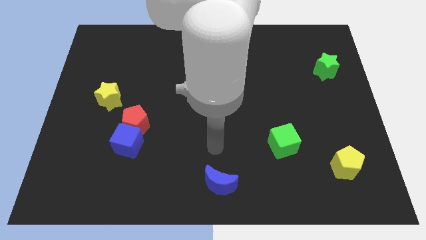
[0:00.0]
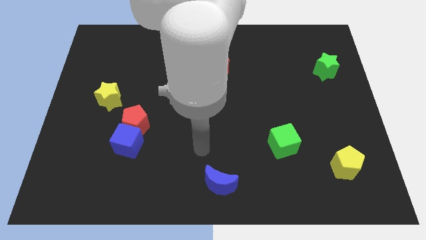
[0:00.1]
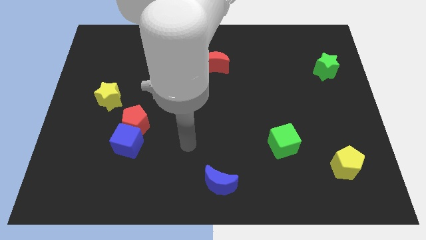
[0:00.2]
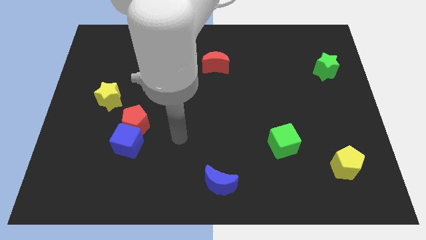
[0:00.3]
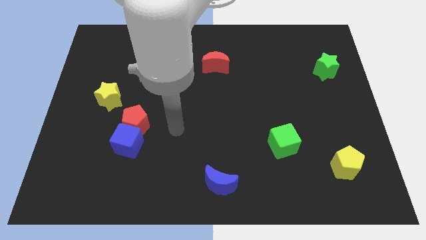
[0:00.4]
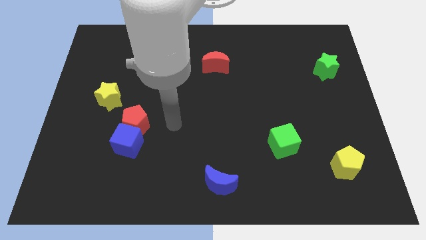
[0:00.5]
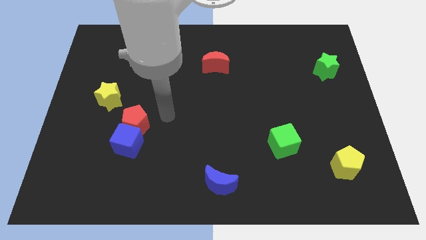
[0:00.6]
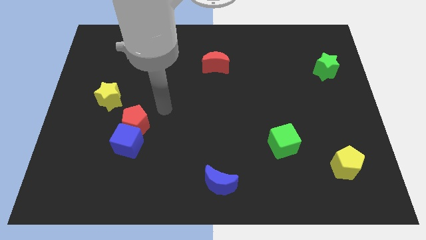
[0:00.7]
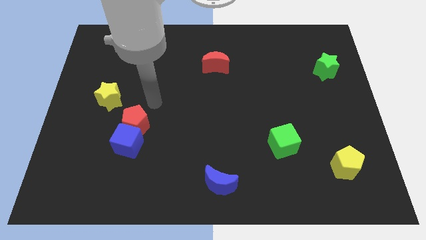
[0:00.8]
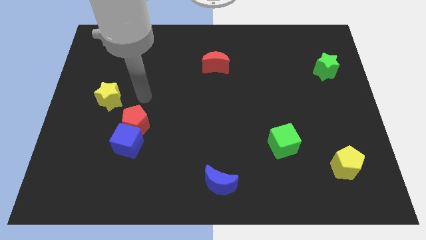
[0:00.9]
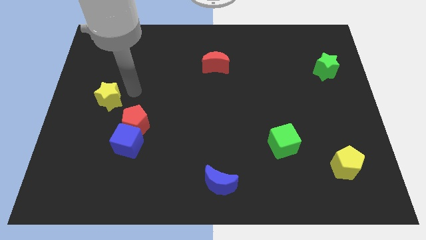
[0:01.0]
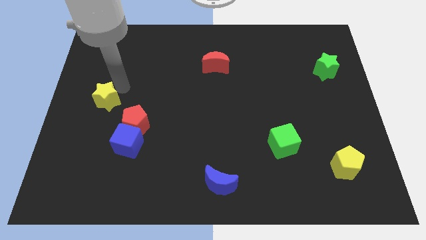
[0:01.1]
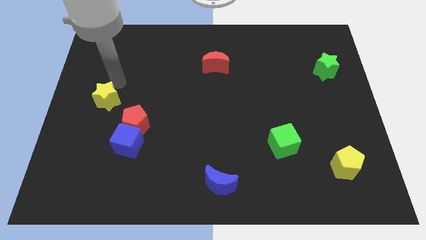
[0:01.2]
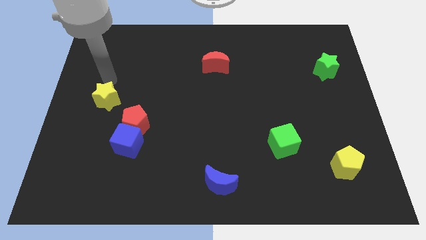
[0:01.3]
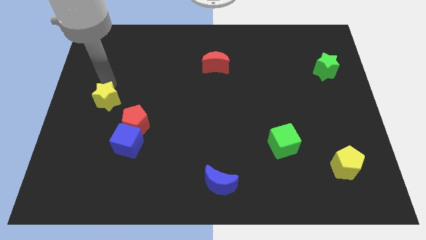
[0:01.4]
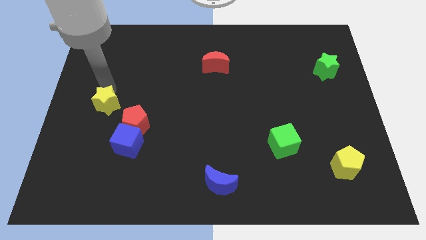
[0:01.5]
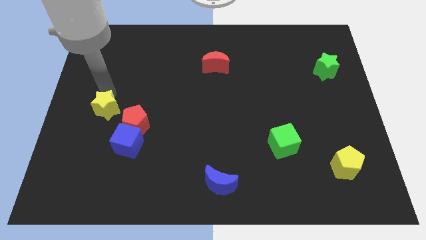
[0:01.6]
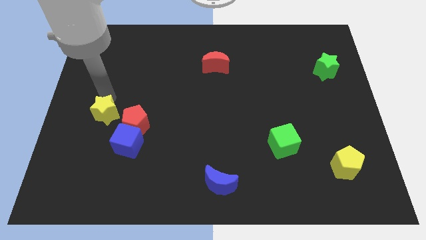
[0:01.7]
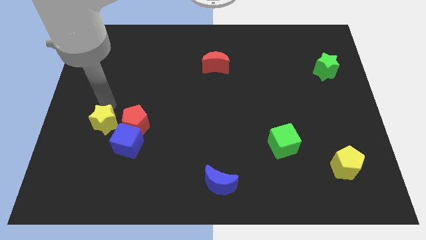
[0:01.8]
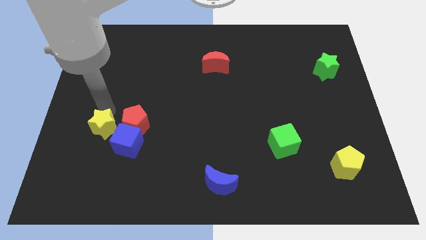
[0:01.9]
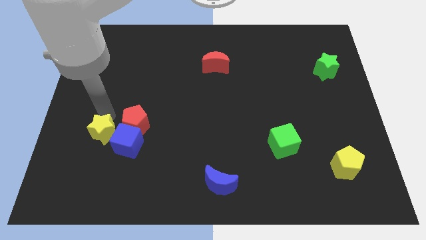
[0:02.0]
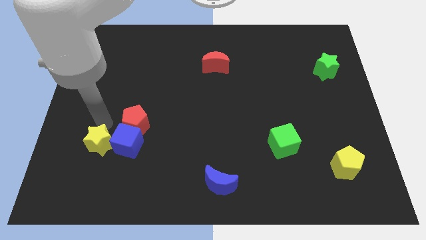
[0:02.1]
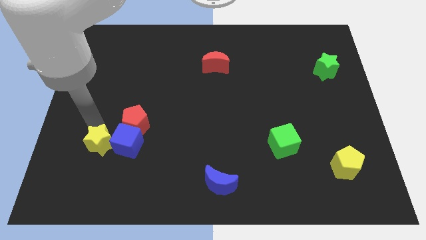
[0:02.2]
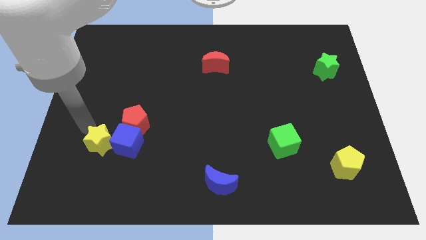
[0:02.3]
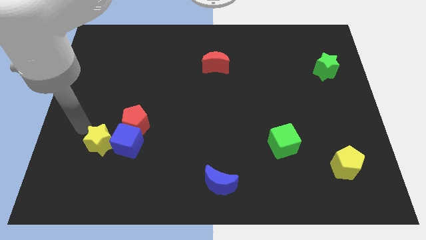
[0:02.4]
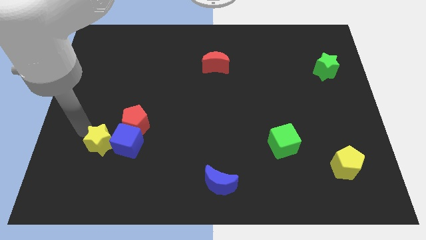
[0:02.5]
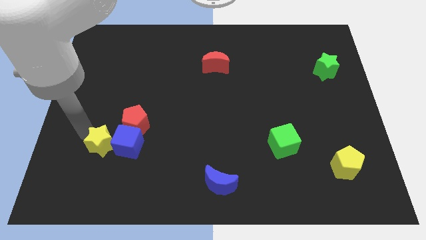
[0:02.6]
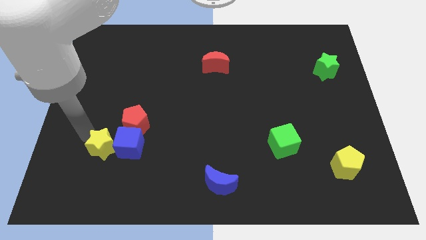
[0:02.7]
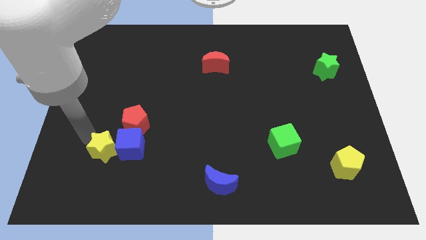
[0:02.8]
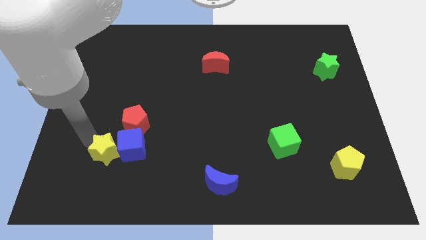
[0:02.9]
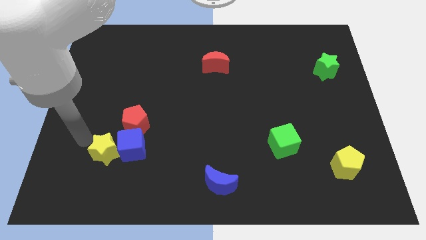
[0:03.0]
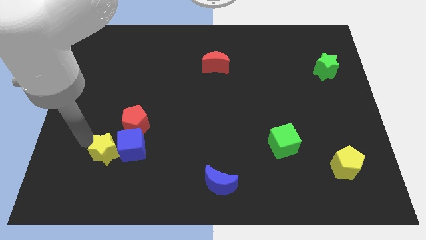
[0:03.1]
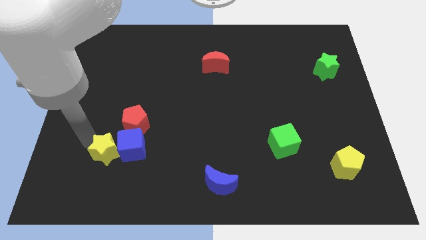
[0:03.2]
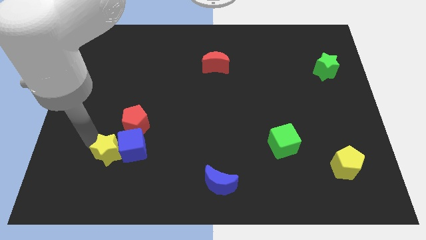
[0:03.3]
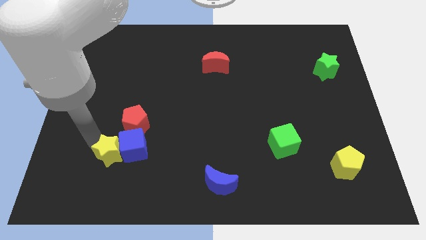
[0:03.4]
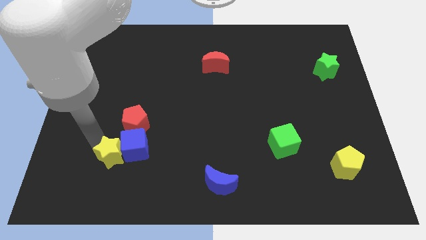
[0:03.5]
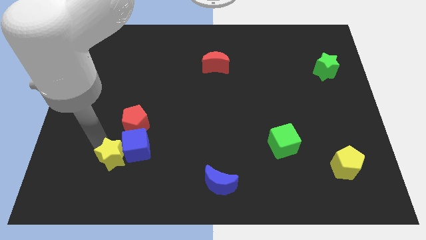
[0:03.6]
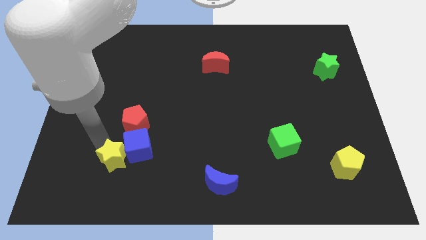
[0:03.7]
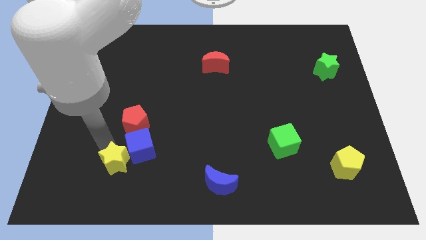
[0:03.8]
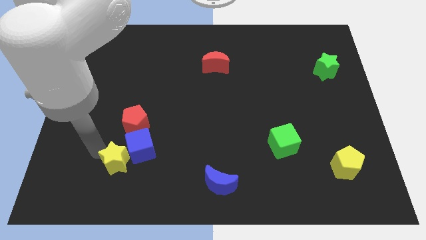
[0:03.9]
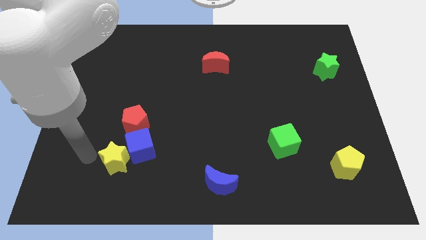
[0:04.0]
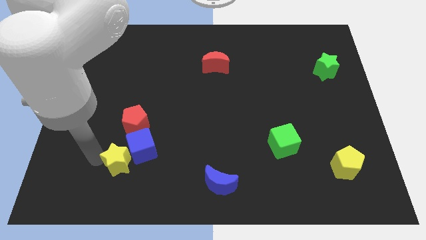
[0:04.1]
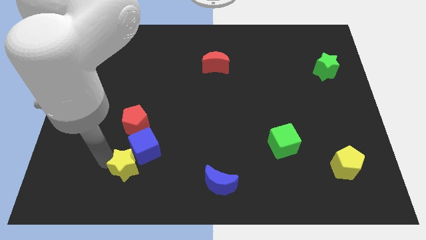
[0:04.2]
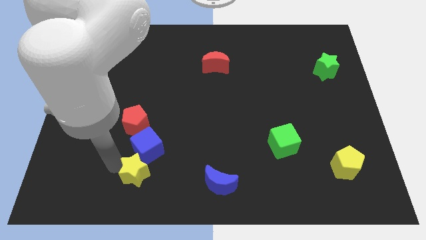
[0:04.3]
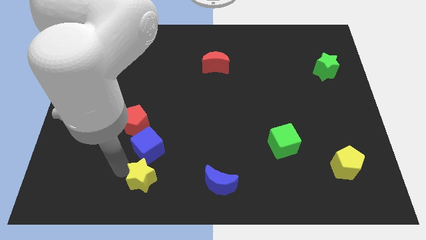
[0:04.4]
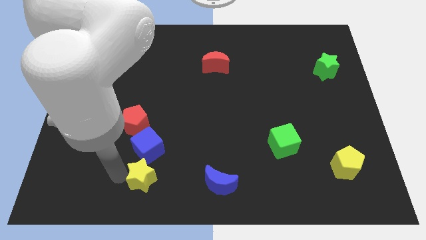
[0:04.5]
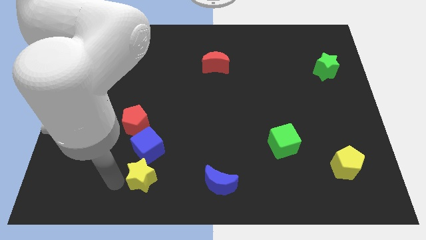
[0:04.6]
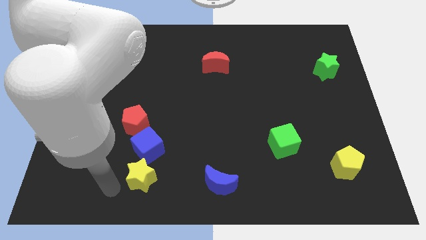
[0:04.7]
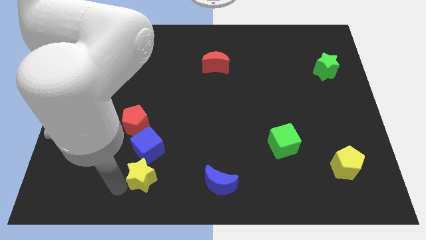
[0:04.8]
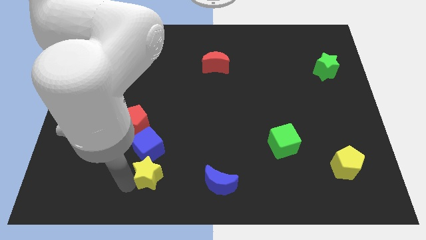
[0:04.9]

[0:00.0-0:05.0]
put the yellow star to the bottom right side of the blue cube

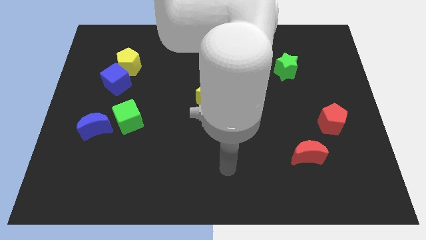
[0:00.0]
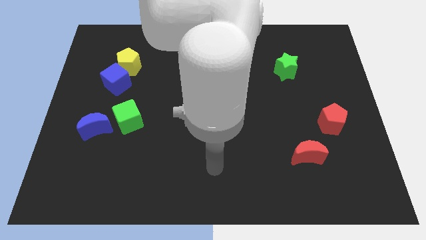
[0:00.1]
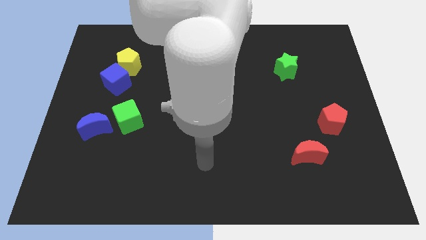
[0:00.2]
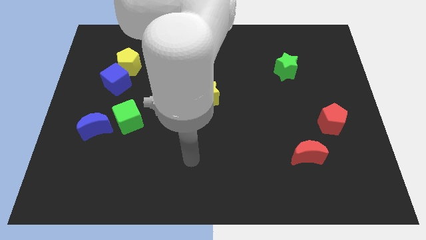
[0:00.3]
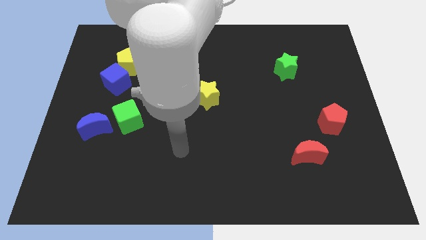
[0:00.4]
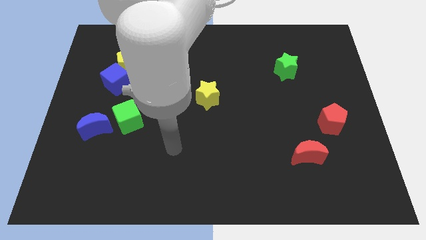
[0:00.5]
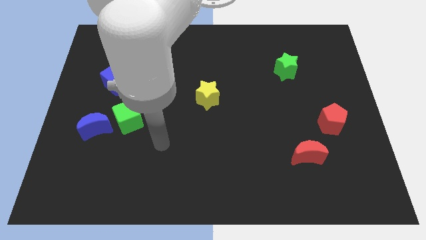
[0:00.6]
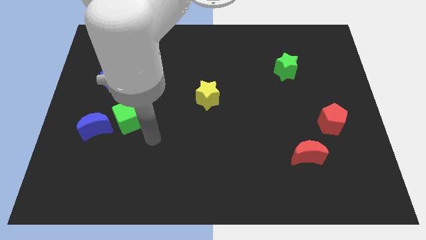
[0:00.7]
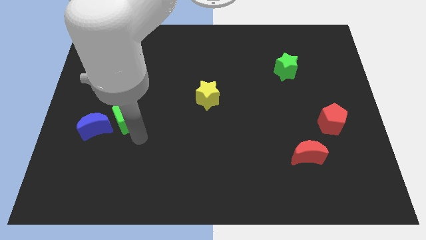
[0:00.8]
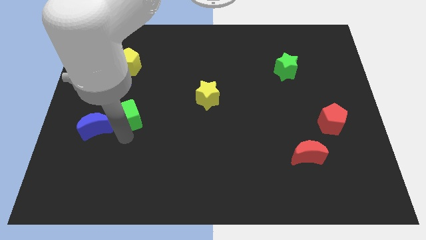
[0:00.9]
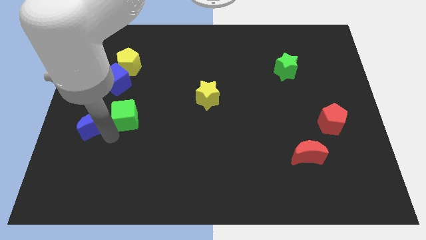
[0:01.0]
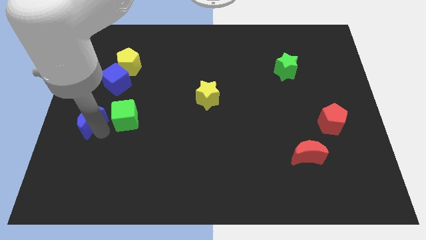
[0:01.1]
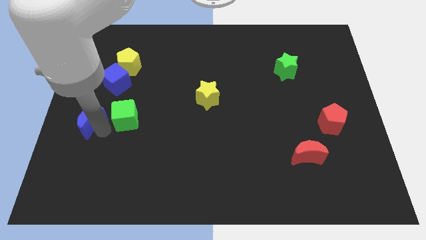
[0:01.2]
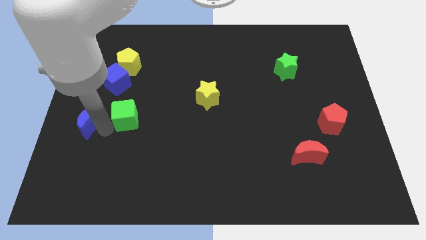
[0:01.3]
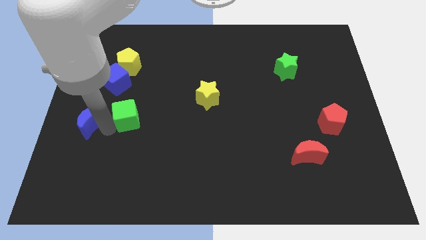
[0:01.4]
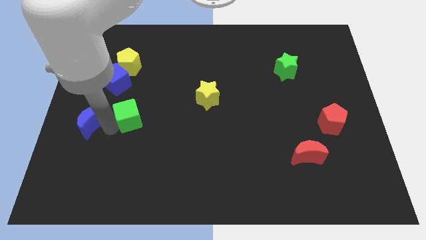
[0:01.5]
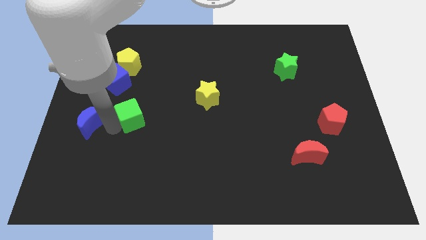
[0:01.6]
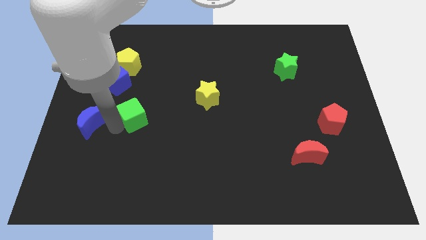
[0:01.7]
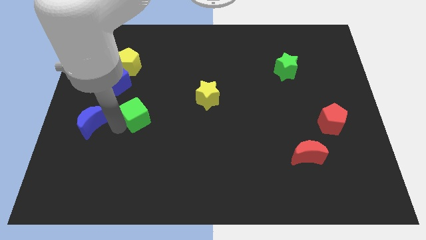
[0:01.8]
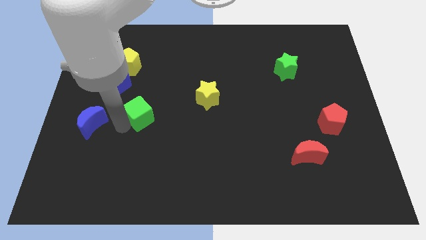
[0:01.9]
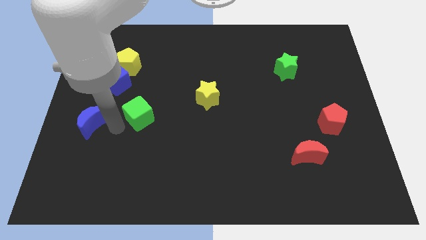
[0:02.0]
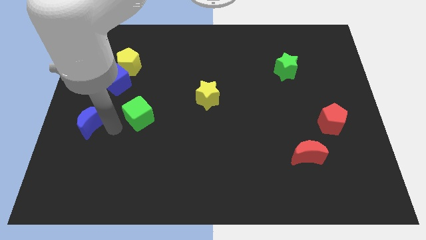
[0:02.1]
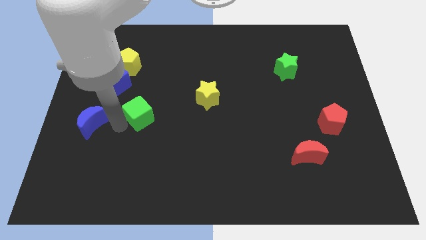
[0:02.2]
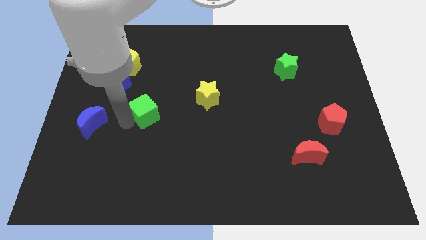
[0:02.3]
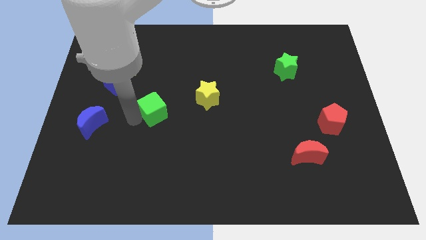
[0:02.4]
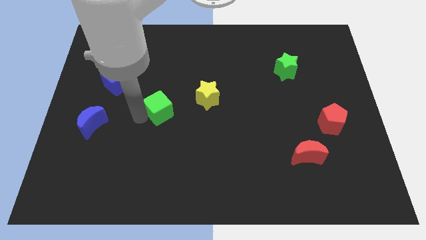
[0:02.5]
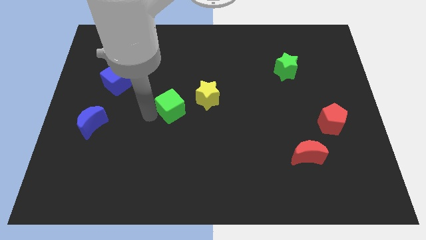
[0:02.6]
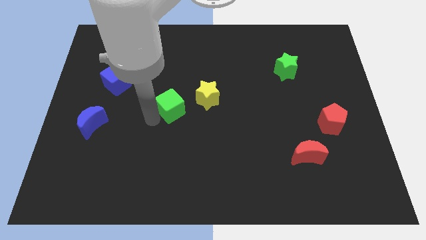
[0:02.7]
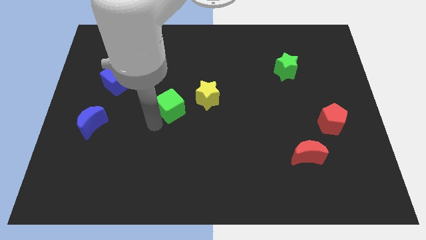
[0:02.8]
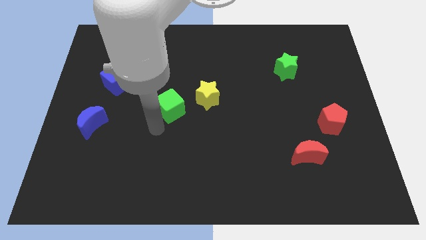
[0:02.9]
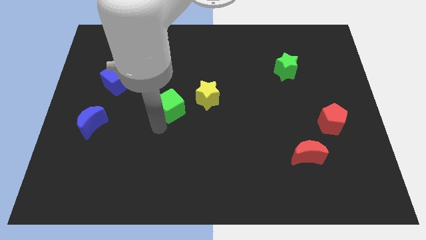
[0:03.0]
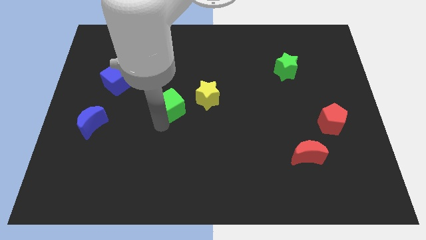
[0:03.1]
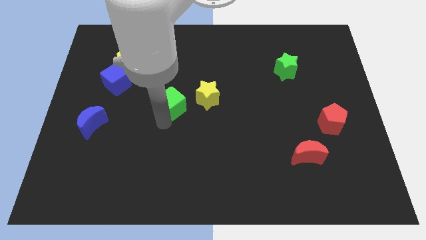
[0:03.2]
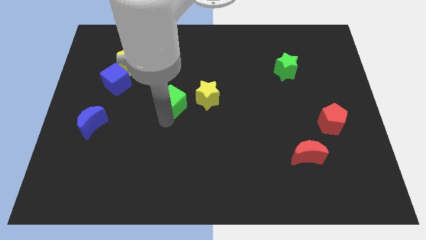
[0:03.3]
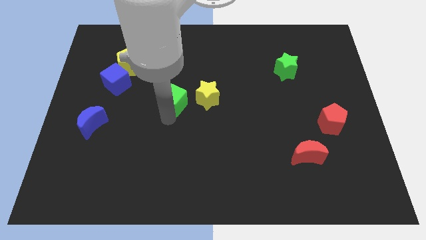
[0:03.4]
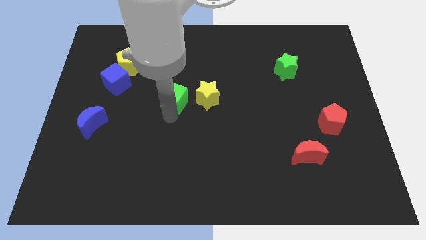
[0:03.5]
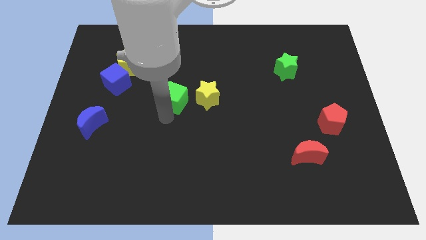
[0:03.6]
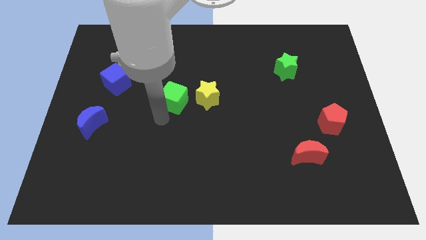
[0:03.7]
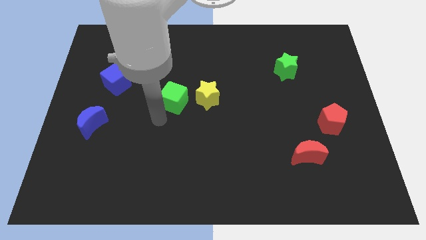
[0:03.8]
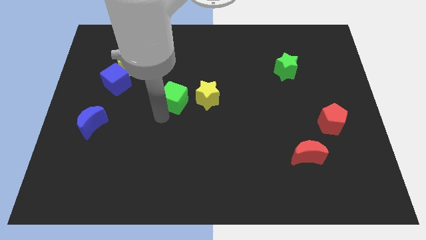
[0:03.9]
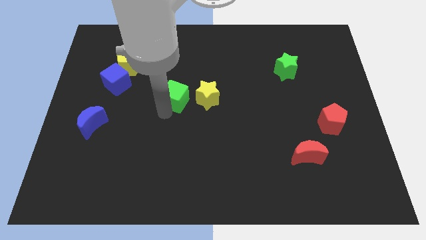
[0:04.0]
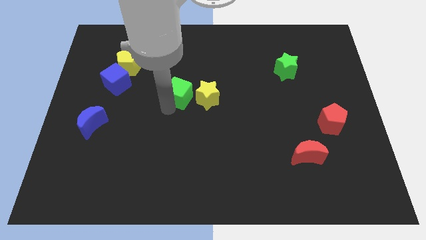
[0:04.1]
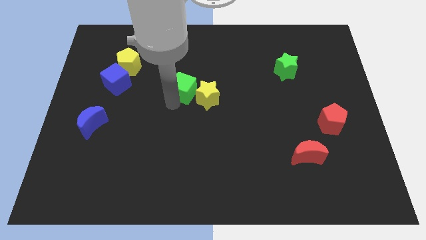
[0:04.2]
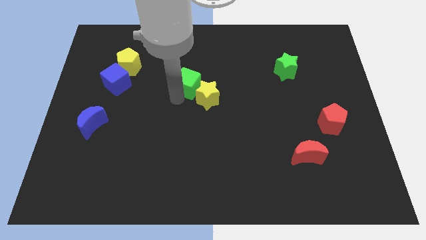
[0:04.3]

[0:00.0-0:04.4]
slide the green cube above the yellow star
